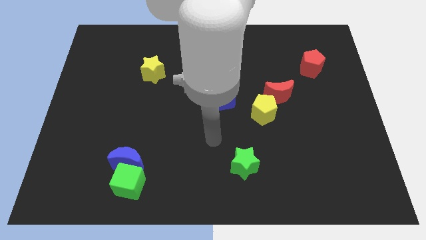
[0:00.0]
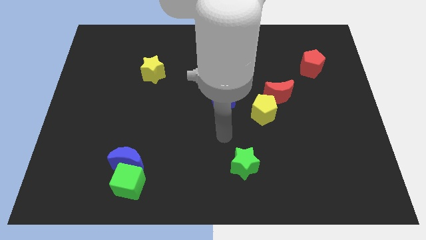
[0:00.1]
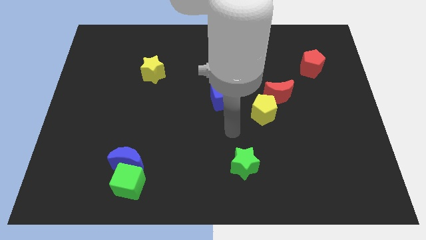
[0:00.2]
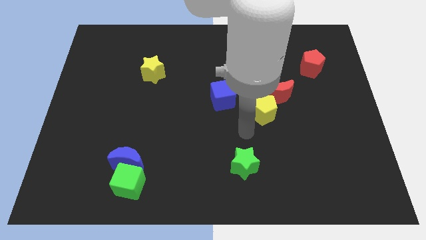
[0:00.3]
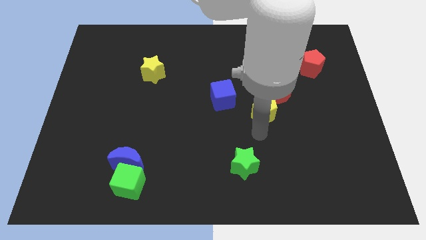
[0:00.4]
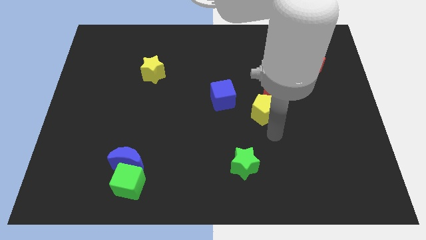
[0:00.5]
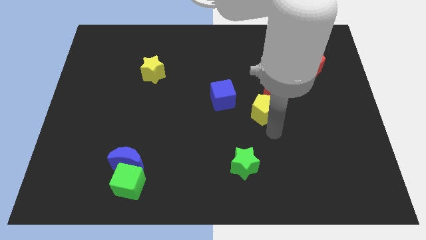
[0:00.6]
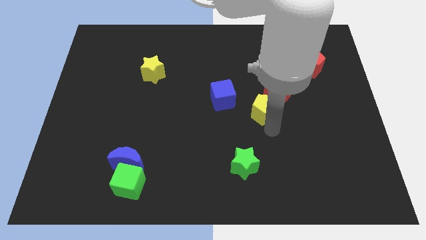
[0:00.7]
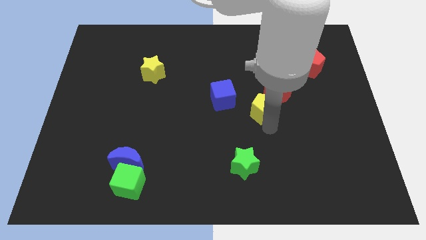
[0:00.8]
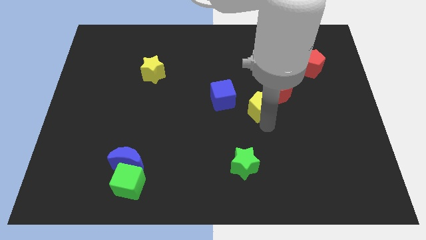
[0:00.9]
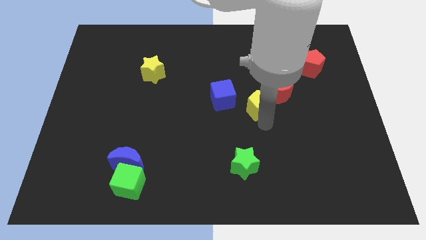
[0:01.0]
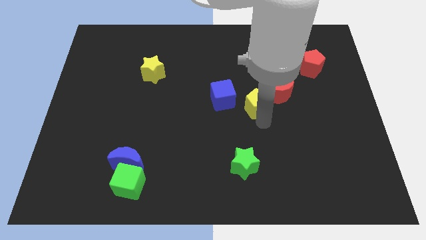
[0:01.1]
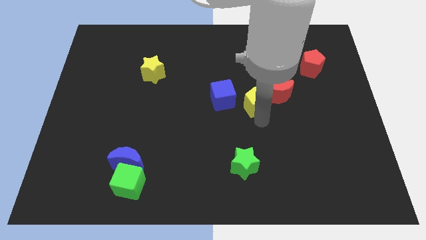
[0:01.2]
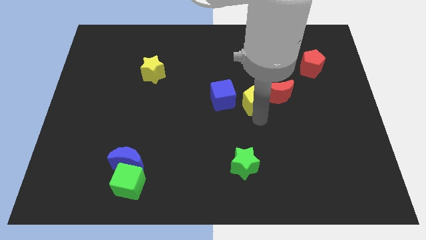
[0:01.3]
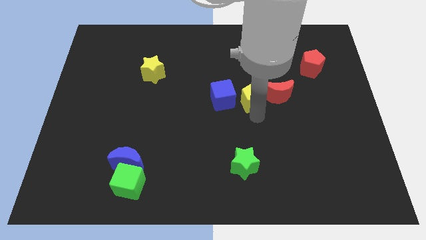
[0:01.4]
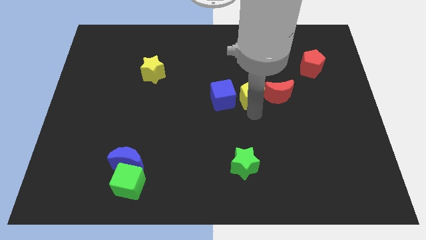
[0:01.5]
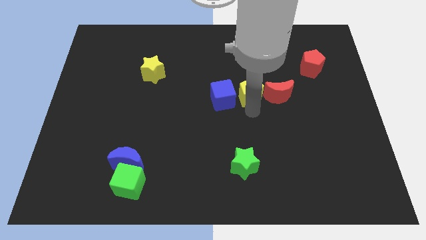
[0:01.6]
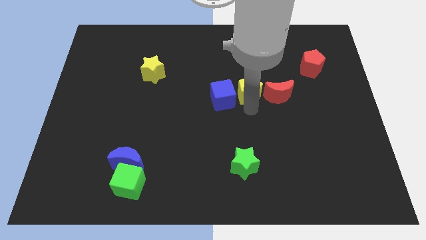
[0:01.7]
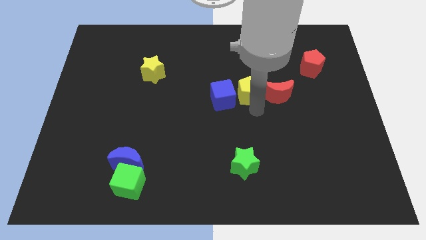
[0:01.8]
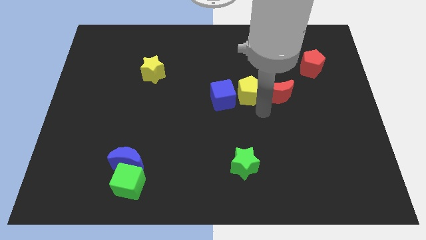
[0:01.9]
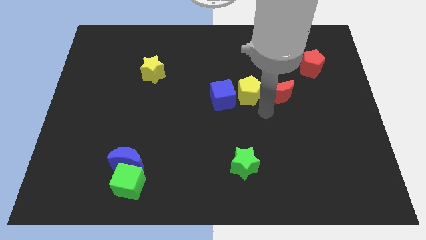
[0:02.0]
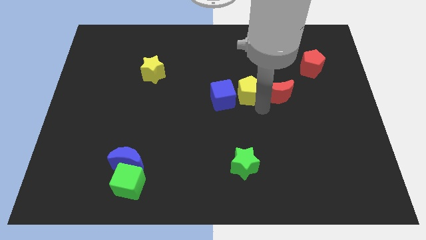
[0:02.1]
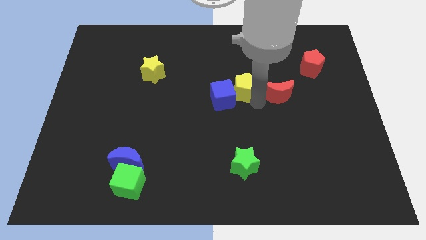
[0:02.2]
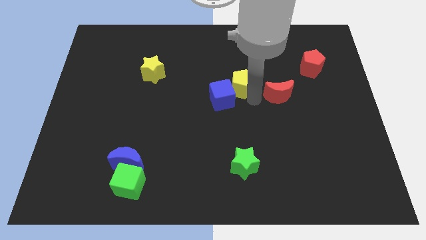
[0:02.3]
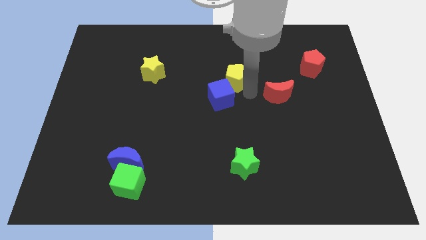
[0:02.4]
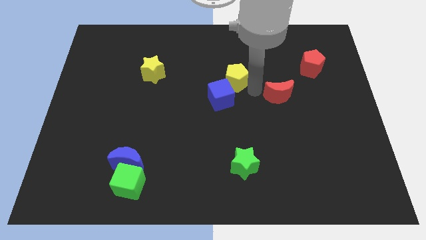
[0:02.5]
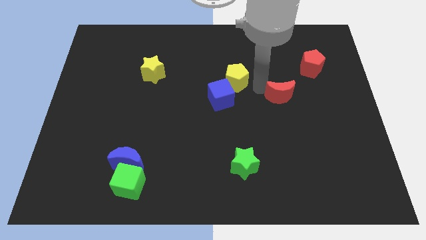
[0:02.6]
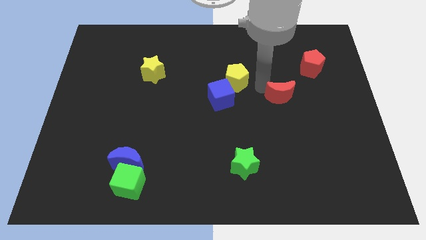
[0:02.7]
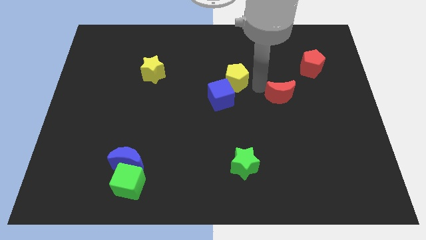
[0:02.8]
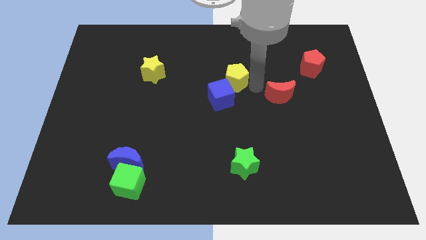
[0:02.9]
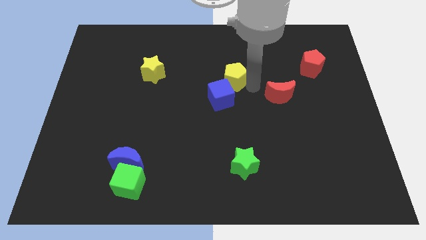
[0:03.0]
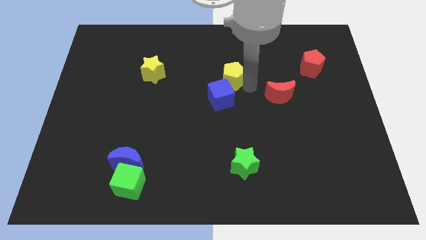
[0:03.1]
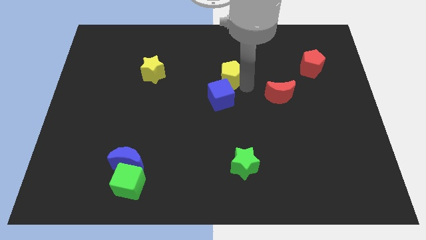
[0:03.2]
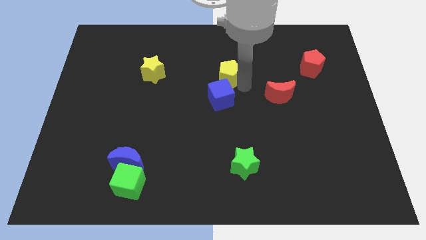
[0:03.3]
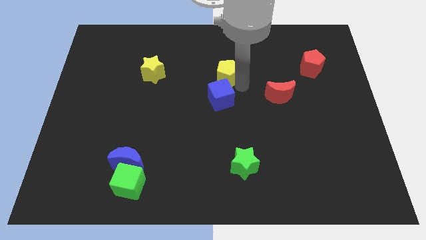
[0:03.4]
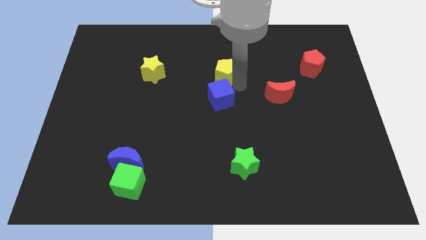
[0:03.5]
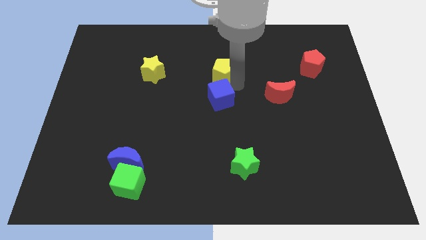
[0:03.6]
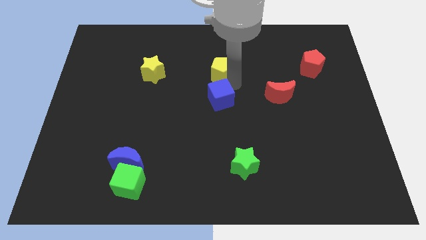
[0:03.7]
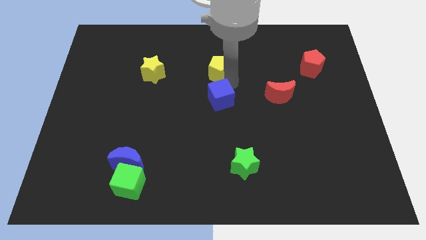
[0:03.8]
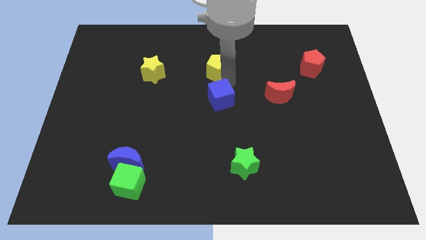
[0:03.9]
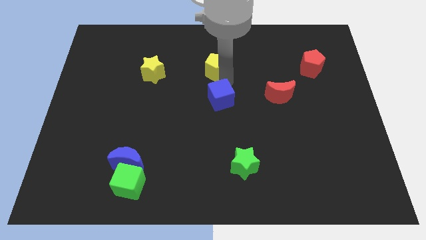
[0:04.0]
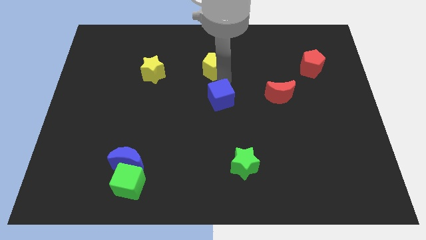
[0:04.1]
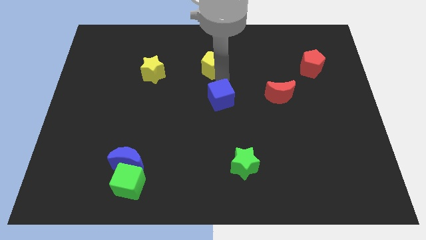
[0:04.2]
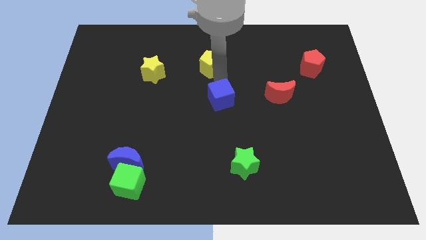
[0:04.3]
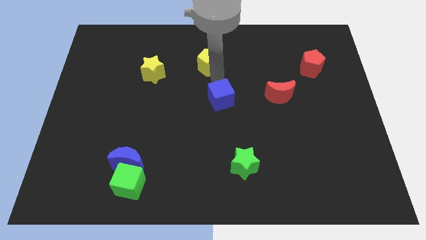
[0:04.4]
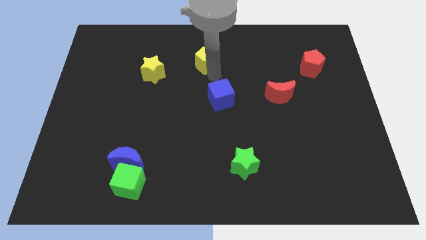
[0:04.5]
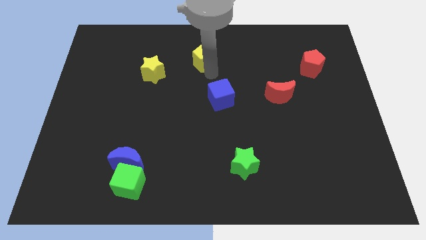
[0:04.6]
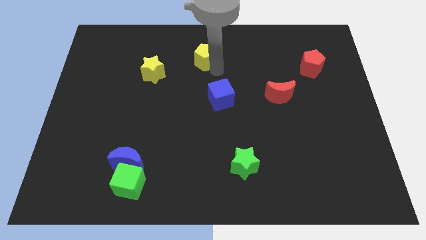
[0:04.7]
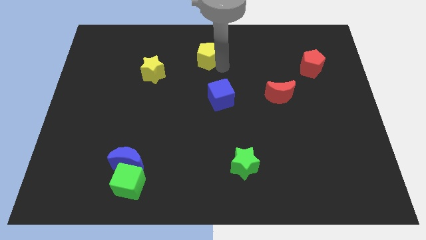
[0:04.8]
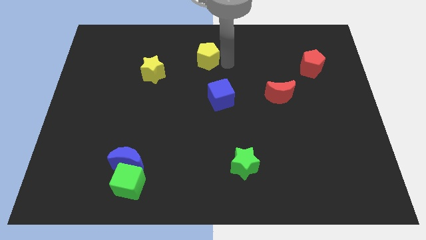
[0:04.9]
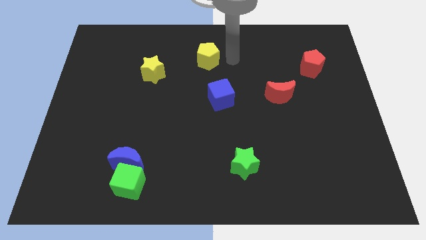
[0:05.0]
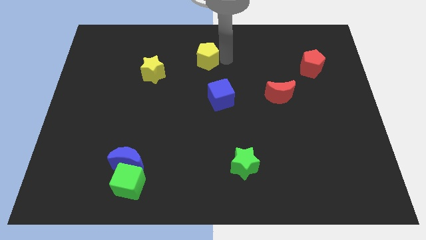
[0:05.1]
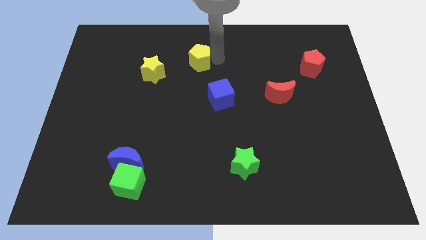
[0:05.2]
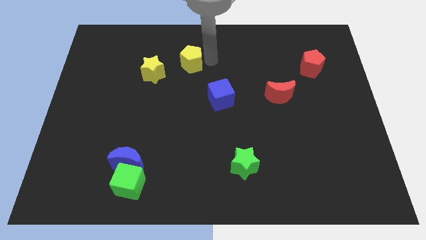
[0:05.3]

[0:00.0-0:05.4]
slide the yellow pentagon diagonally up and to the right of the yellow star

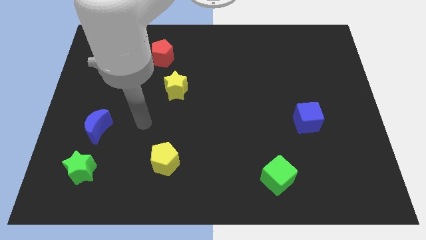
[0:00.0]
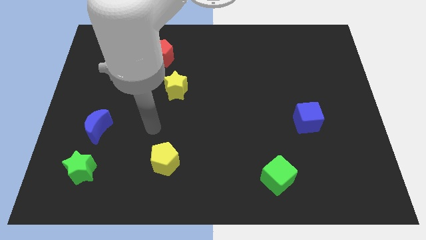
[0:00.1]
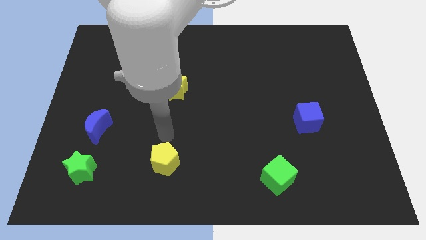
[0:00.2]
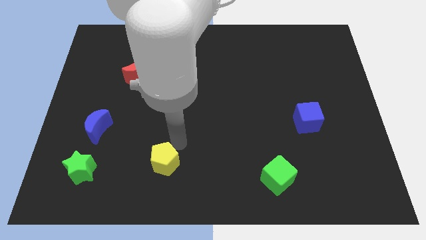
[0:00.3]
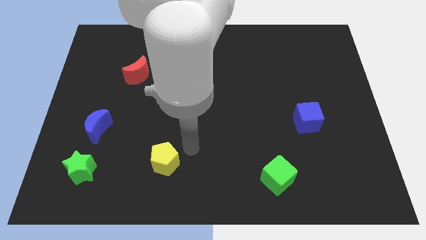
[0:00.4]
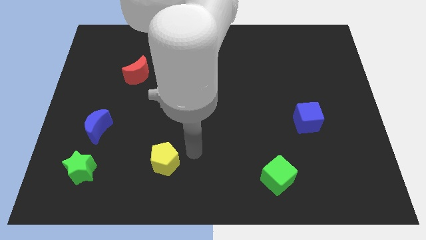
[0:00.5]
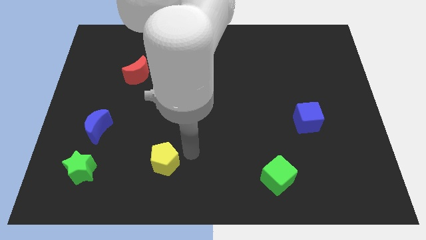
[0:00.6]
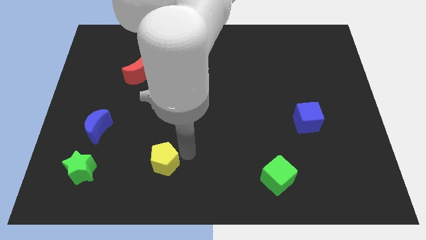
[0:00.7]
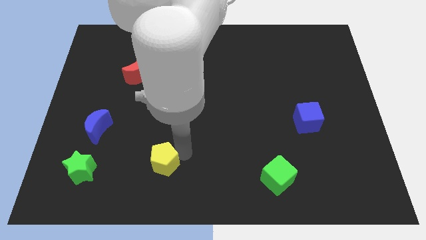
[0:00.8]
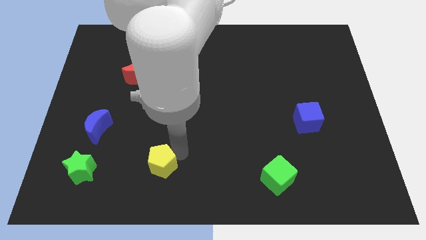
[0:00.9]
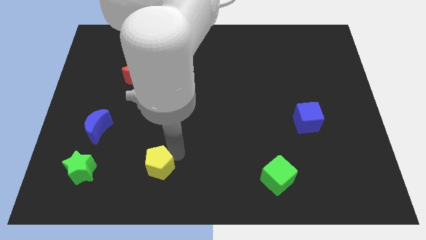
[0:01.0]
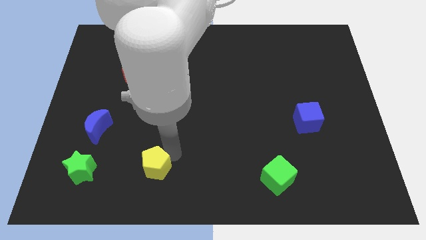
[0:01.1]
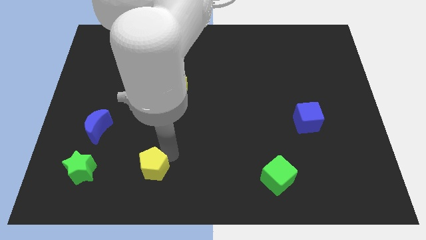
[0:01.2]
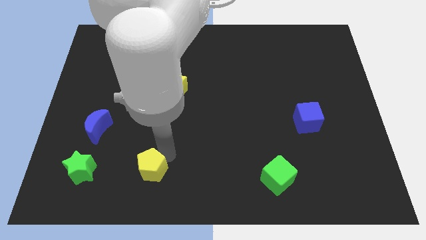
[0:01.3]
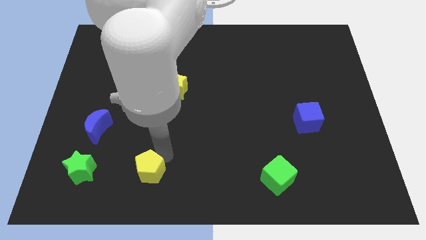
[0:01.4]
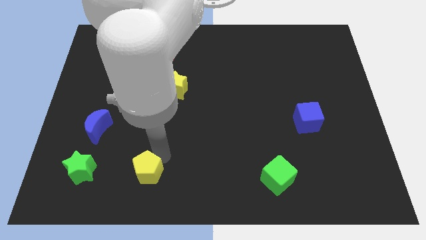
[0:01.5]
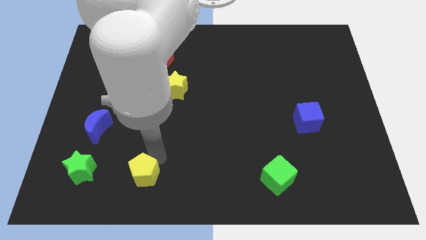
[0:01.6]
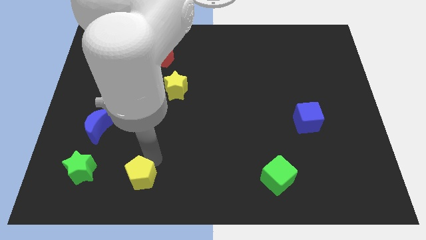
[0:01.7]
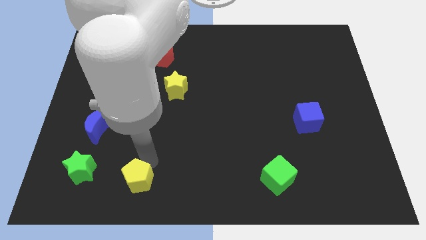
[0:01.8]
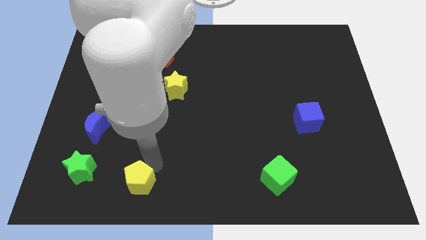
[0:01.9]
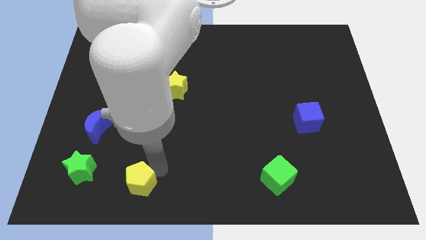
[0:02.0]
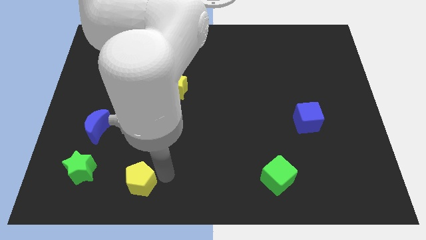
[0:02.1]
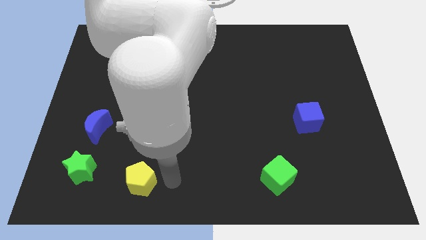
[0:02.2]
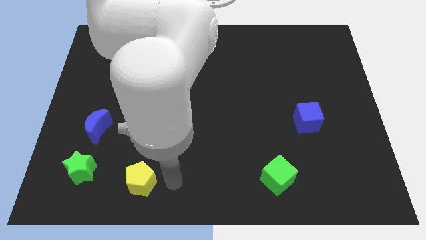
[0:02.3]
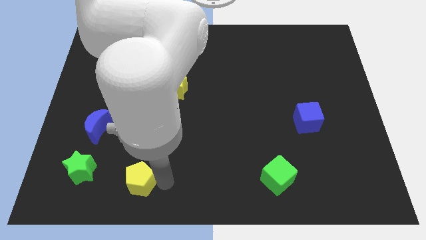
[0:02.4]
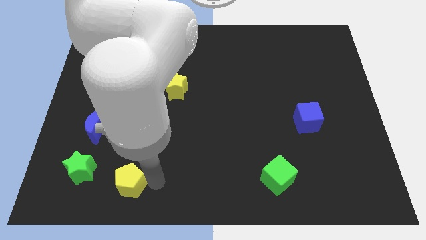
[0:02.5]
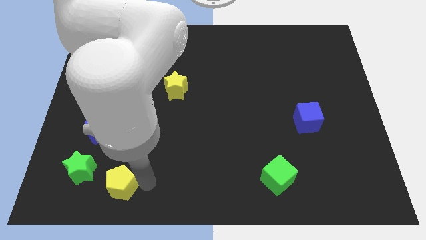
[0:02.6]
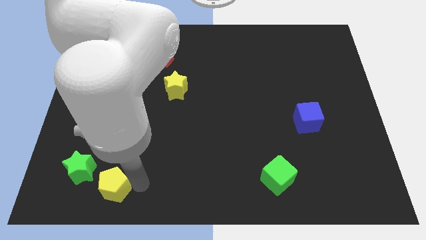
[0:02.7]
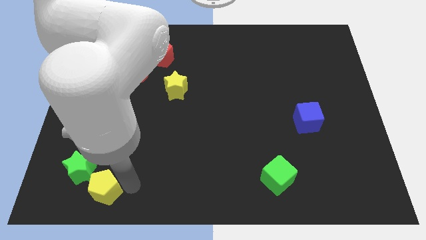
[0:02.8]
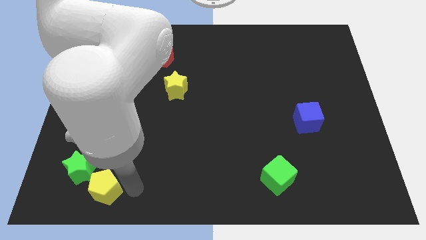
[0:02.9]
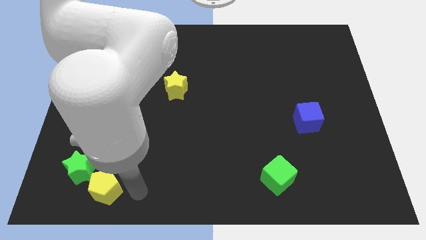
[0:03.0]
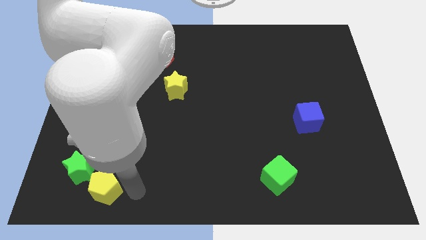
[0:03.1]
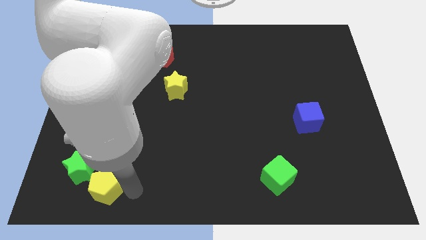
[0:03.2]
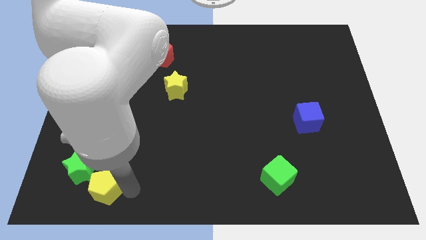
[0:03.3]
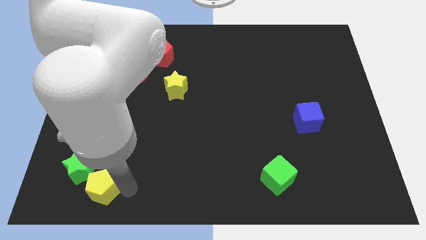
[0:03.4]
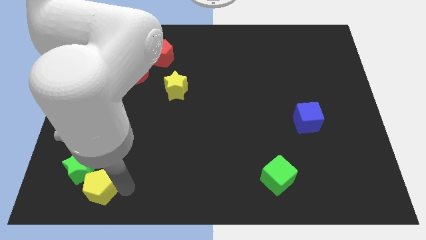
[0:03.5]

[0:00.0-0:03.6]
push the yellow pentagon to the bottom of the blue moon
